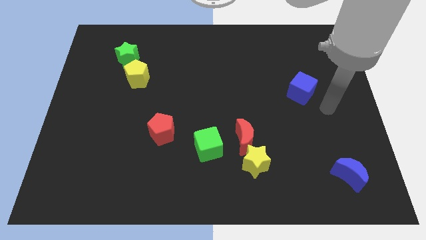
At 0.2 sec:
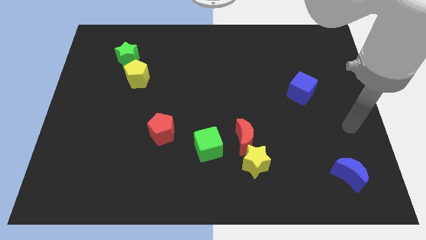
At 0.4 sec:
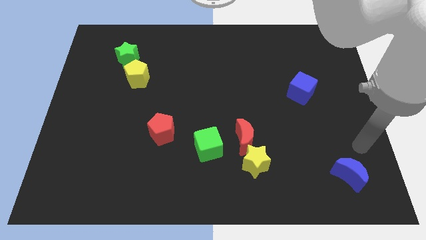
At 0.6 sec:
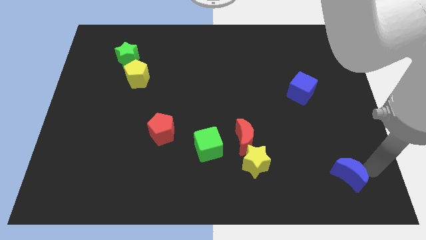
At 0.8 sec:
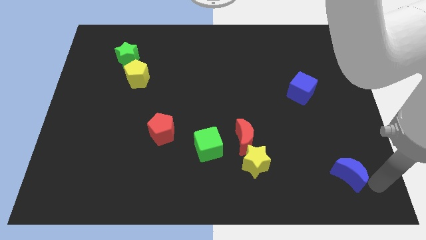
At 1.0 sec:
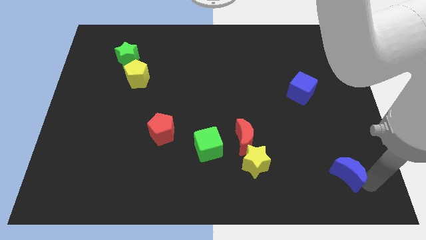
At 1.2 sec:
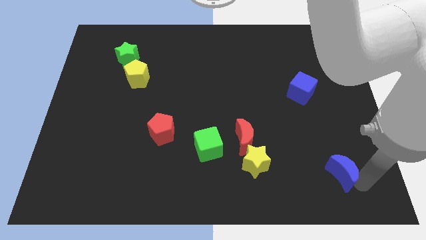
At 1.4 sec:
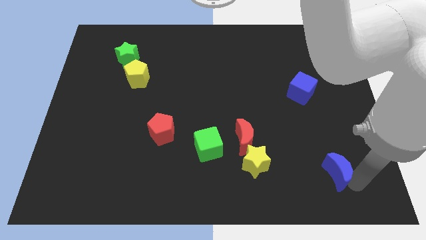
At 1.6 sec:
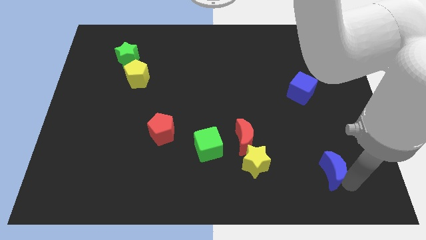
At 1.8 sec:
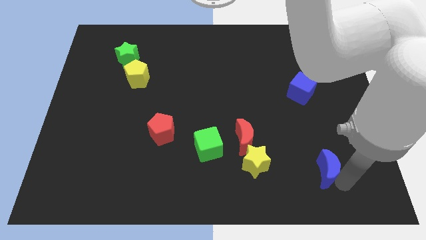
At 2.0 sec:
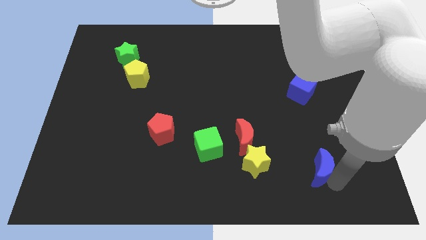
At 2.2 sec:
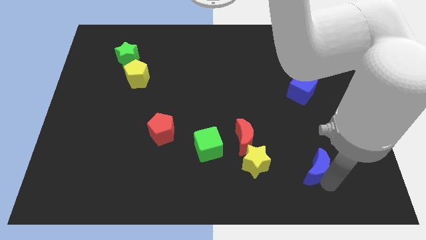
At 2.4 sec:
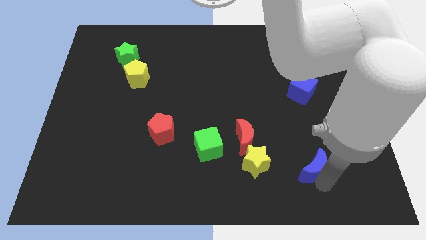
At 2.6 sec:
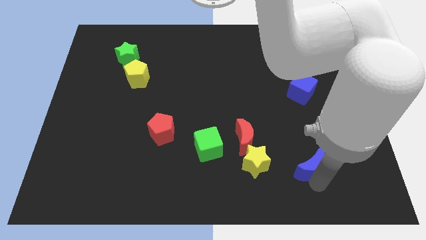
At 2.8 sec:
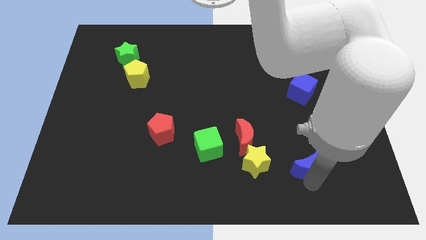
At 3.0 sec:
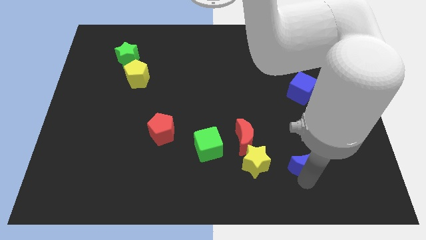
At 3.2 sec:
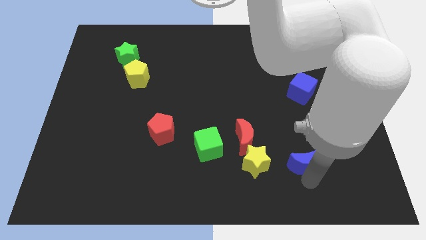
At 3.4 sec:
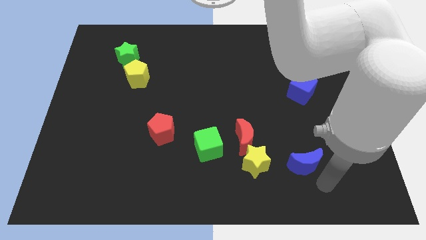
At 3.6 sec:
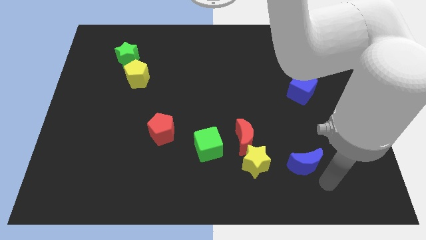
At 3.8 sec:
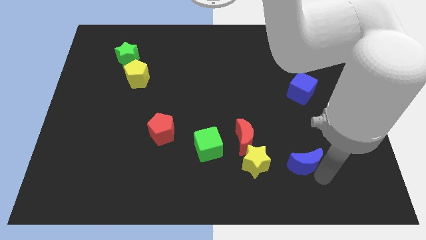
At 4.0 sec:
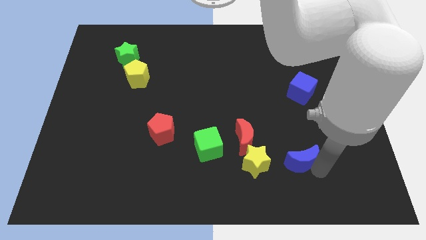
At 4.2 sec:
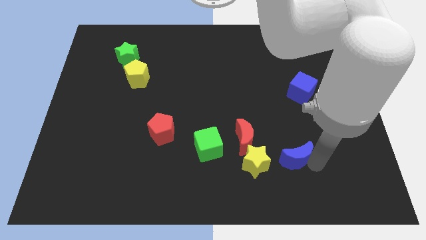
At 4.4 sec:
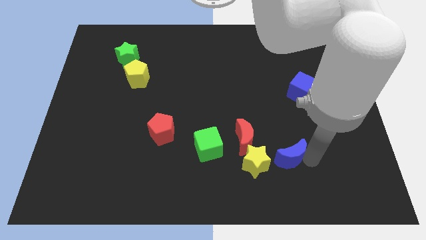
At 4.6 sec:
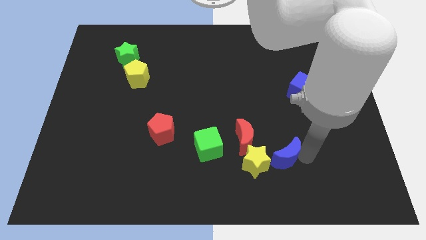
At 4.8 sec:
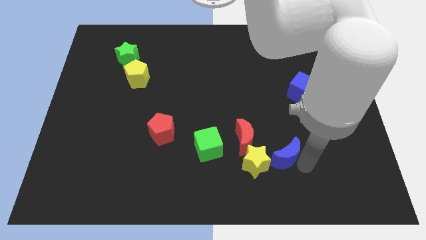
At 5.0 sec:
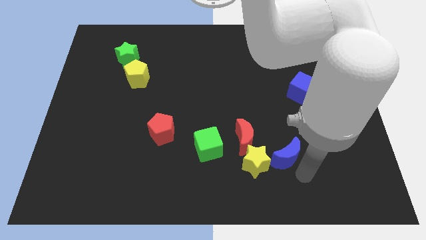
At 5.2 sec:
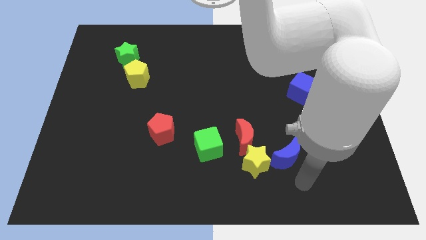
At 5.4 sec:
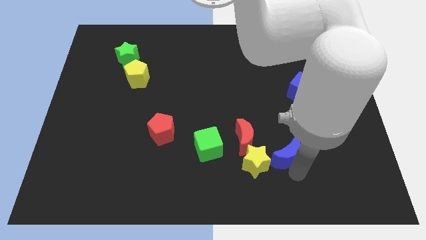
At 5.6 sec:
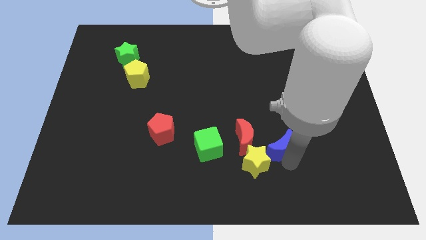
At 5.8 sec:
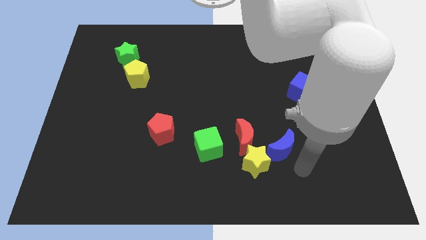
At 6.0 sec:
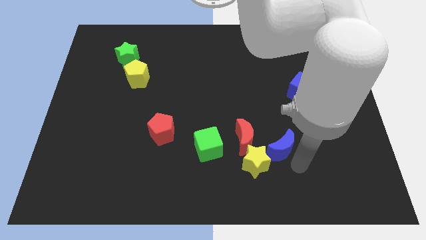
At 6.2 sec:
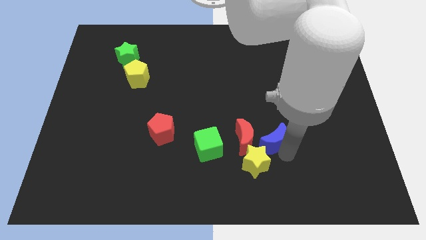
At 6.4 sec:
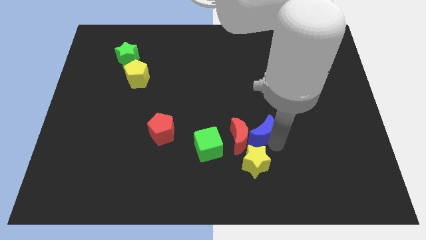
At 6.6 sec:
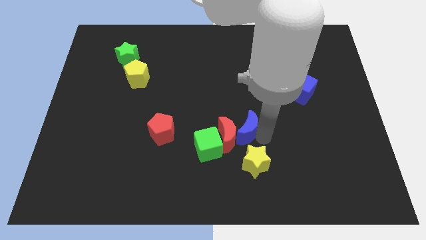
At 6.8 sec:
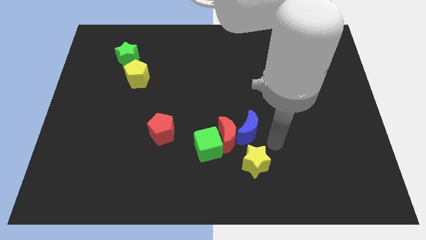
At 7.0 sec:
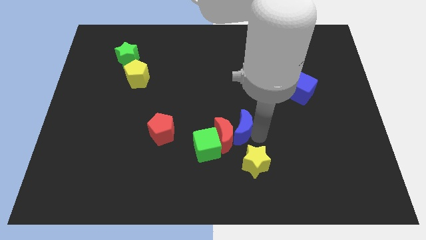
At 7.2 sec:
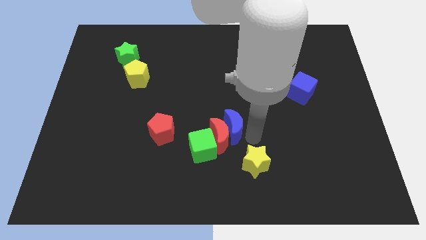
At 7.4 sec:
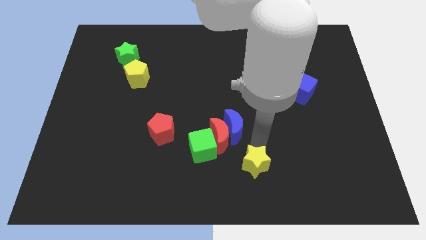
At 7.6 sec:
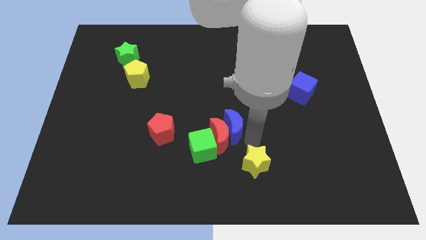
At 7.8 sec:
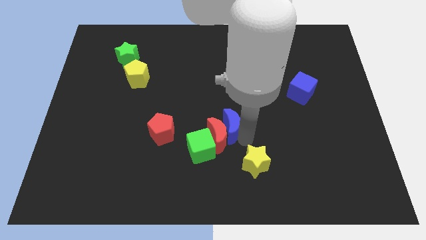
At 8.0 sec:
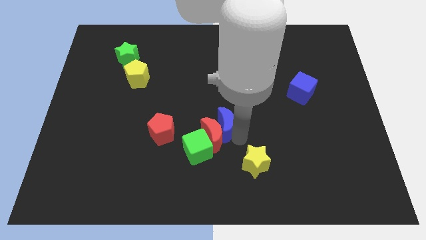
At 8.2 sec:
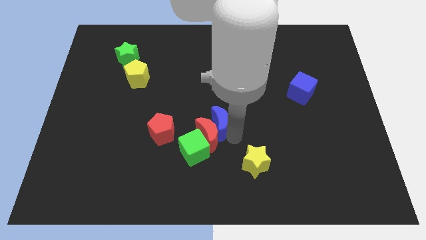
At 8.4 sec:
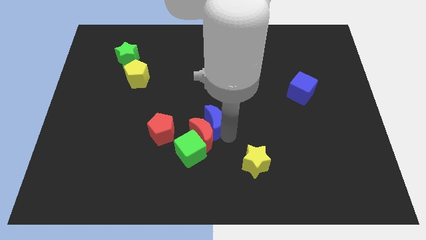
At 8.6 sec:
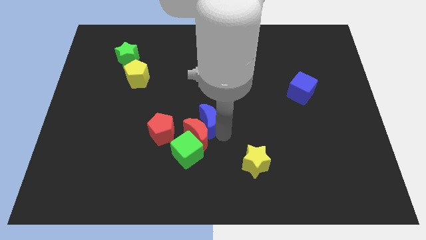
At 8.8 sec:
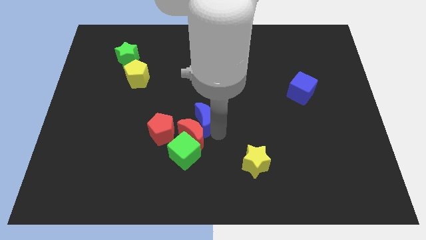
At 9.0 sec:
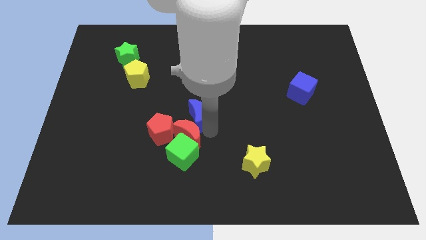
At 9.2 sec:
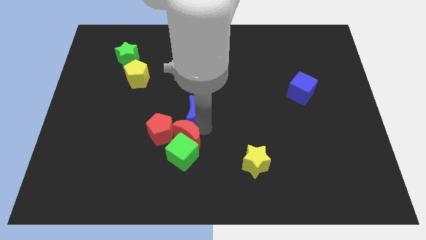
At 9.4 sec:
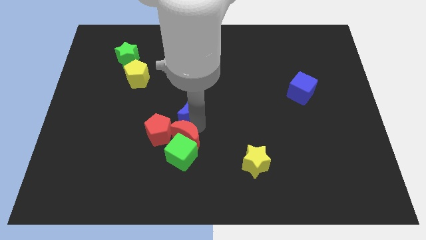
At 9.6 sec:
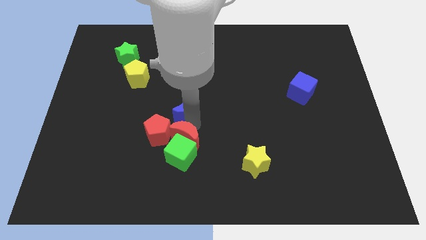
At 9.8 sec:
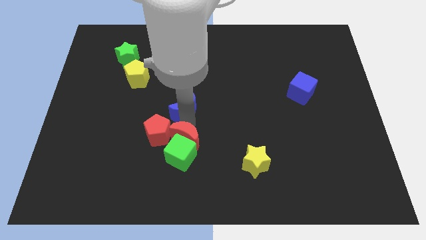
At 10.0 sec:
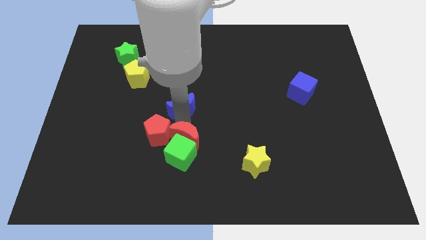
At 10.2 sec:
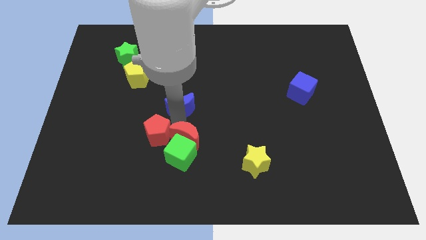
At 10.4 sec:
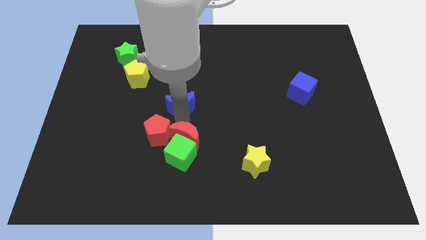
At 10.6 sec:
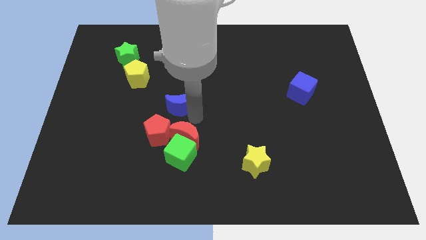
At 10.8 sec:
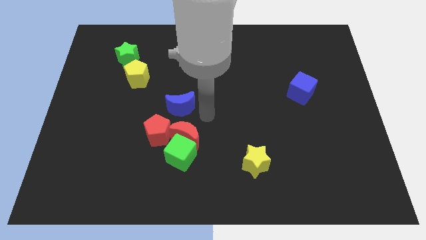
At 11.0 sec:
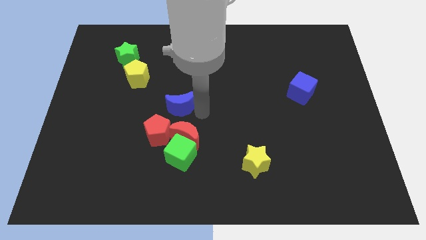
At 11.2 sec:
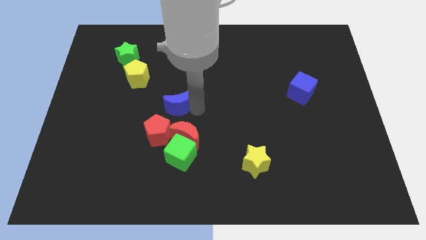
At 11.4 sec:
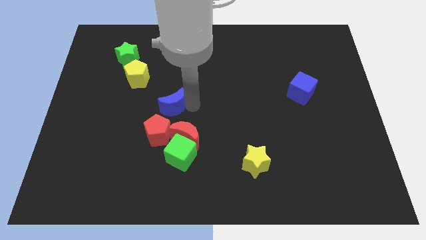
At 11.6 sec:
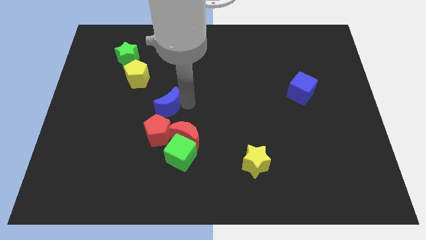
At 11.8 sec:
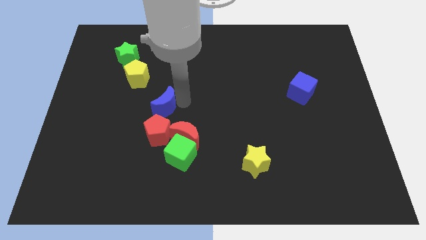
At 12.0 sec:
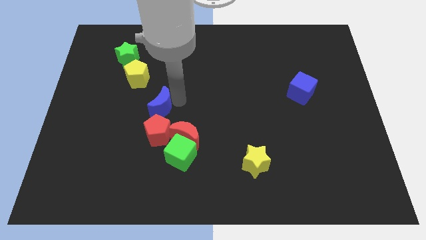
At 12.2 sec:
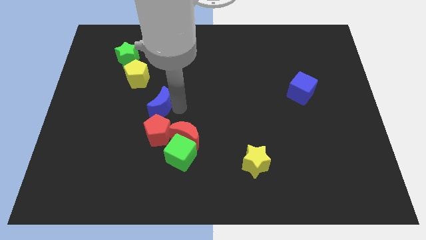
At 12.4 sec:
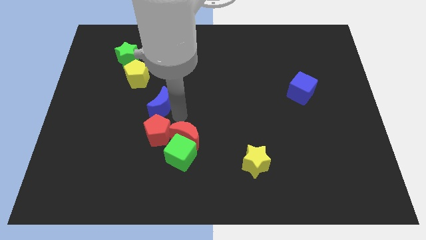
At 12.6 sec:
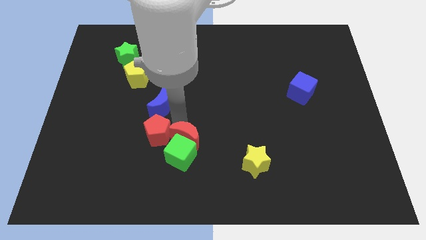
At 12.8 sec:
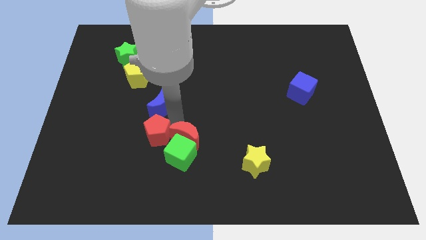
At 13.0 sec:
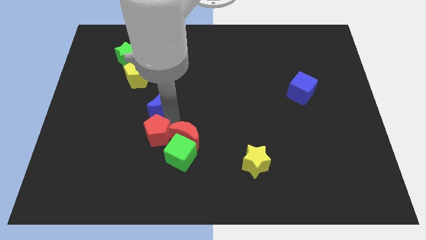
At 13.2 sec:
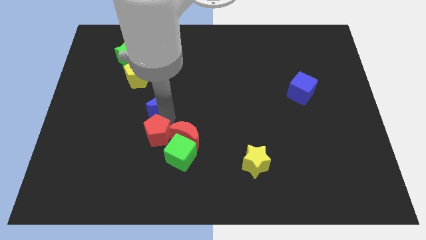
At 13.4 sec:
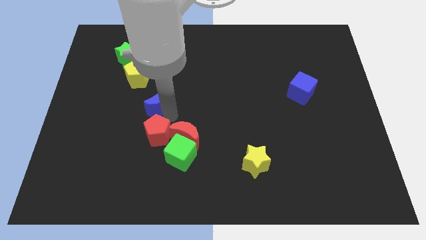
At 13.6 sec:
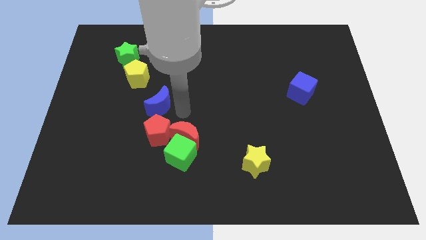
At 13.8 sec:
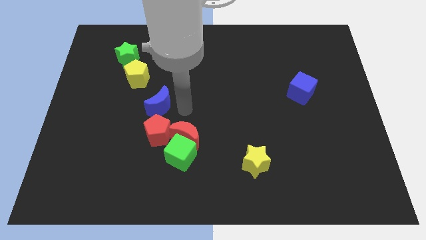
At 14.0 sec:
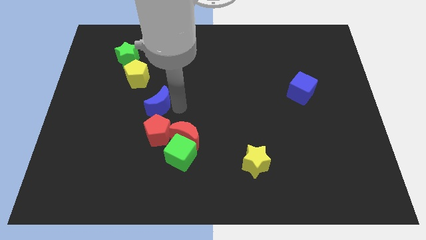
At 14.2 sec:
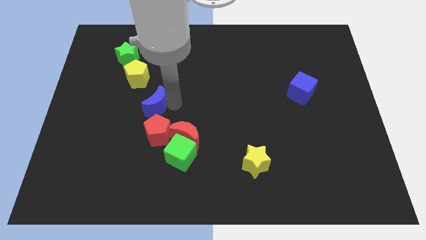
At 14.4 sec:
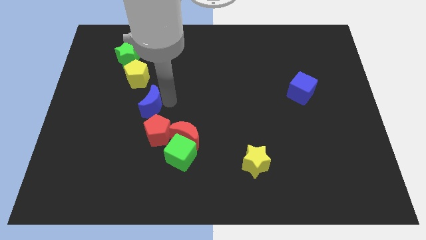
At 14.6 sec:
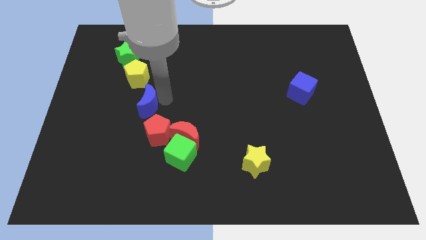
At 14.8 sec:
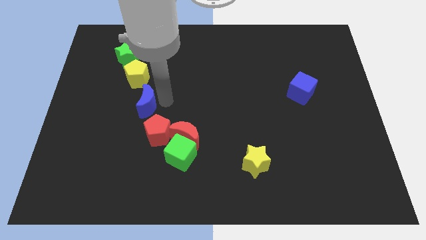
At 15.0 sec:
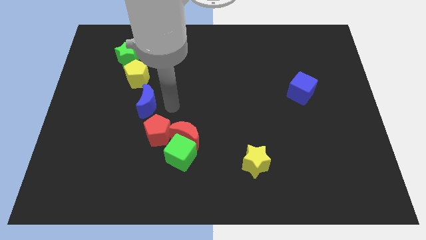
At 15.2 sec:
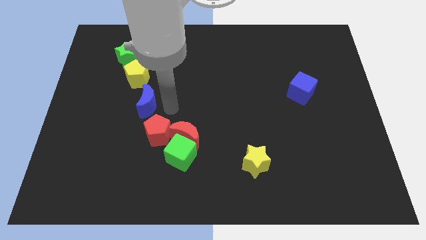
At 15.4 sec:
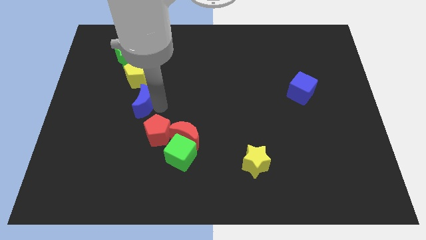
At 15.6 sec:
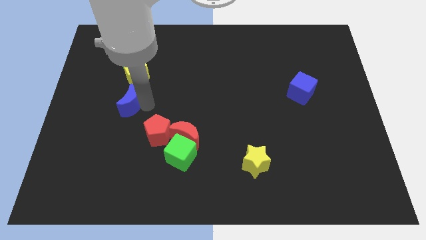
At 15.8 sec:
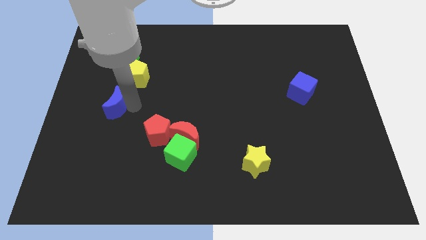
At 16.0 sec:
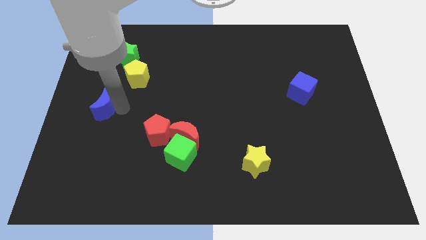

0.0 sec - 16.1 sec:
put the blue moon to the left side
